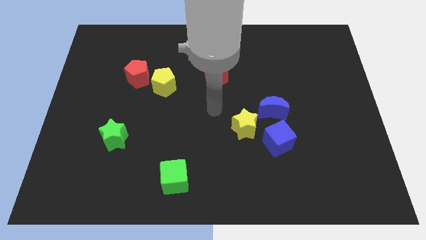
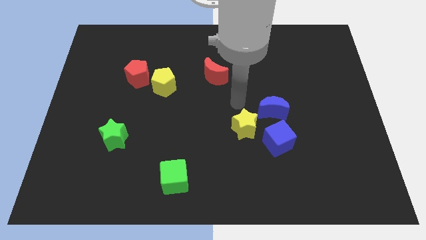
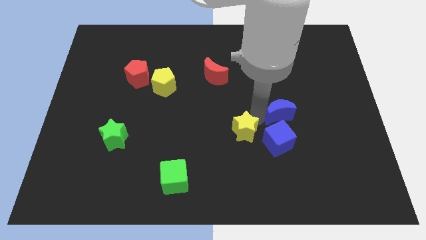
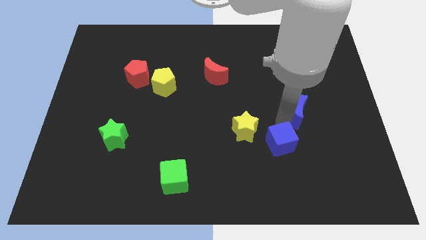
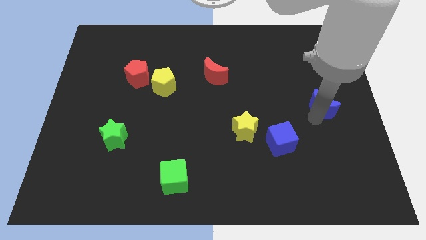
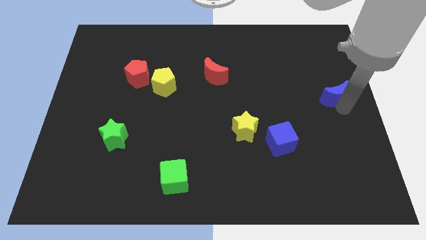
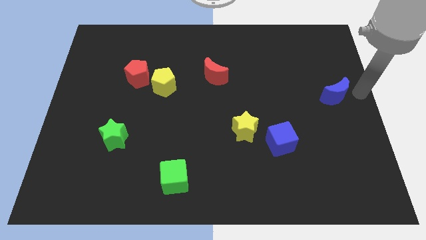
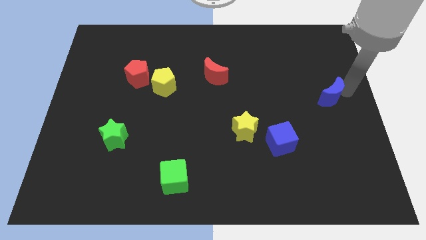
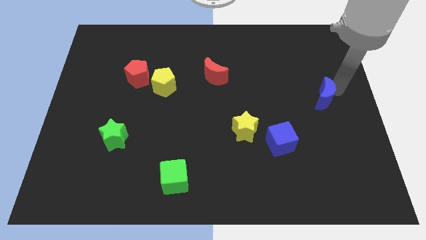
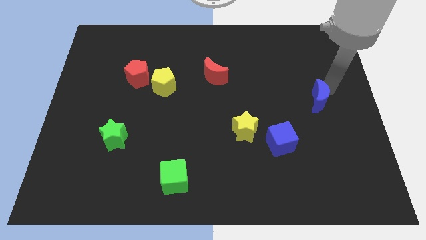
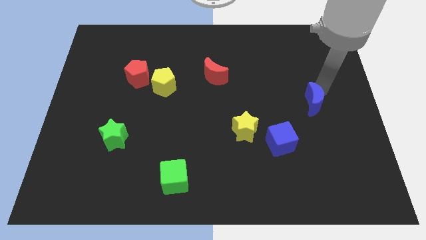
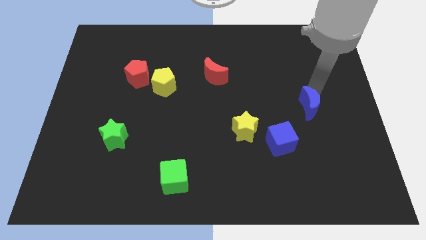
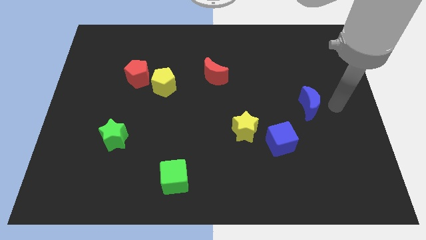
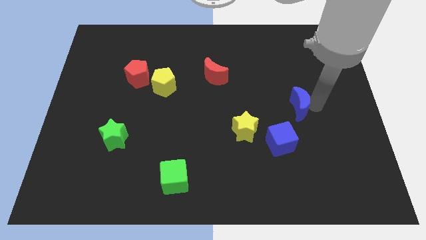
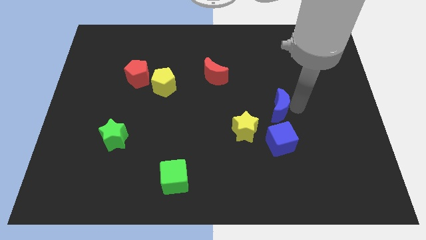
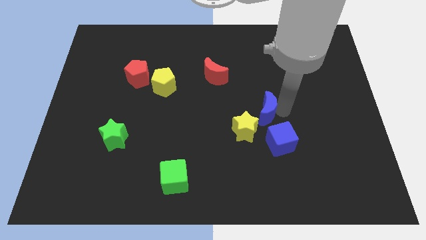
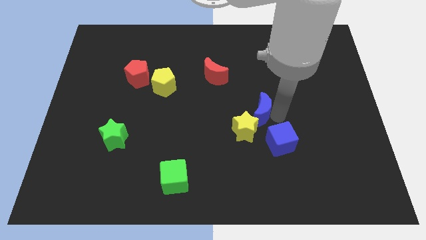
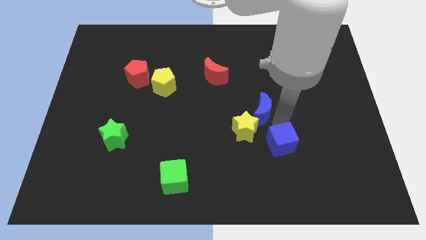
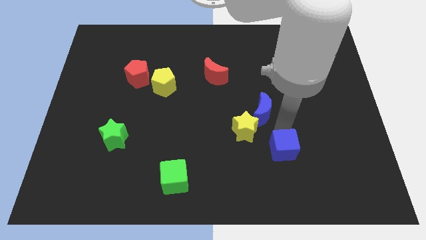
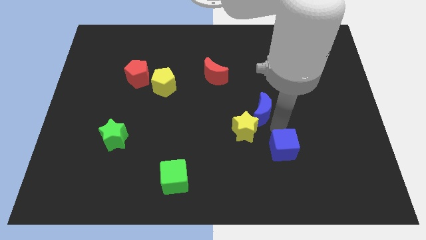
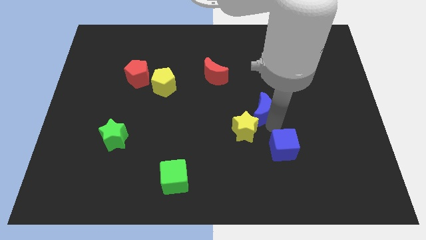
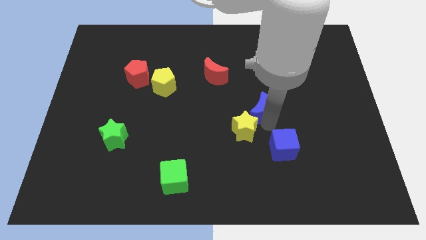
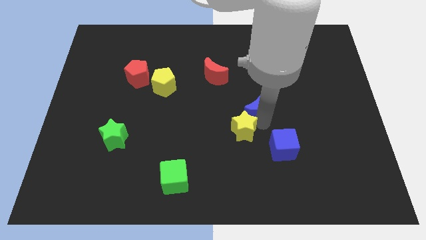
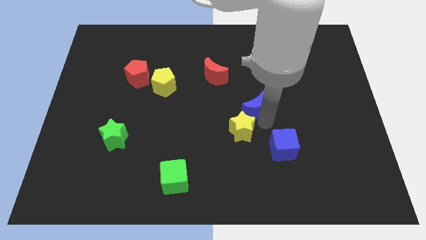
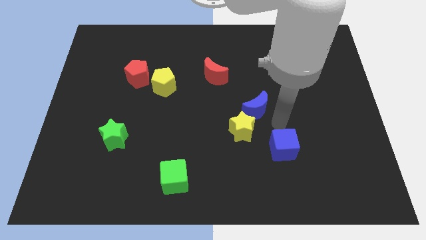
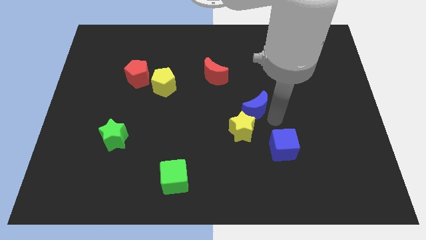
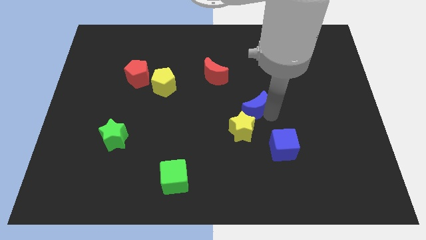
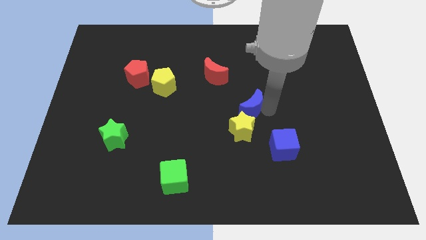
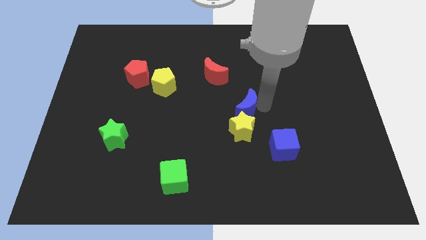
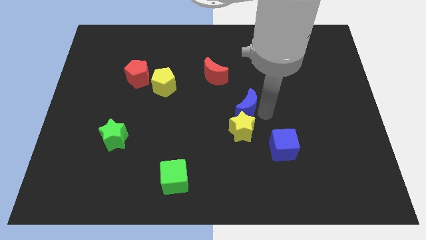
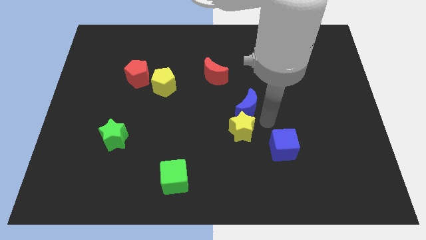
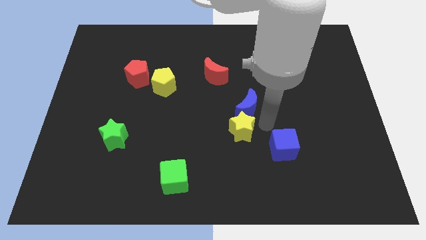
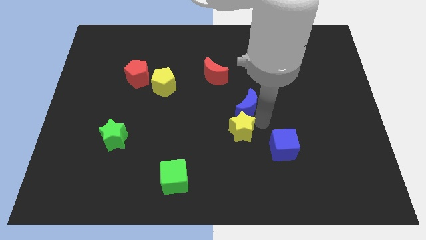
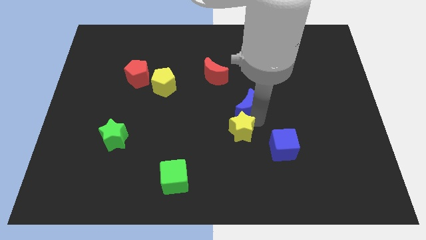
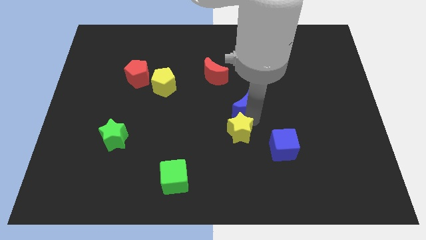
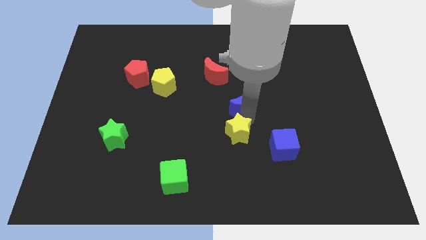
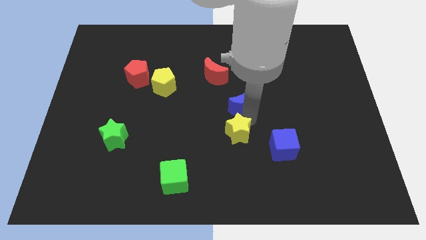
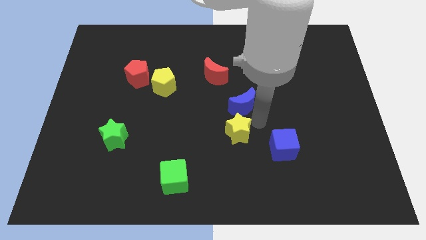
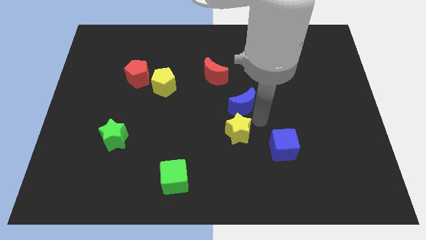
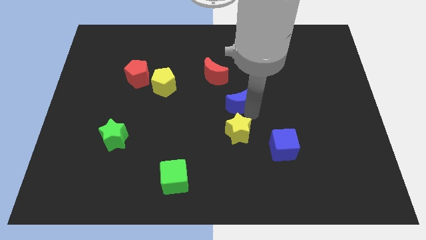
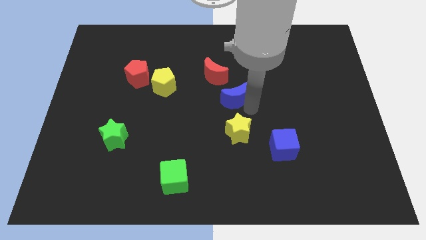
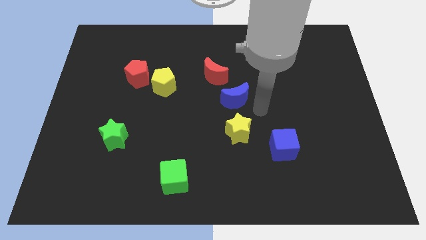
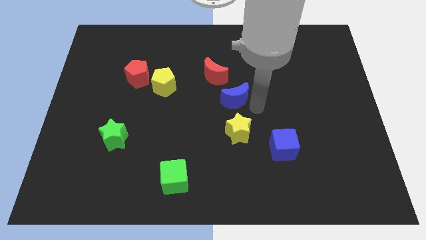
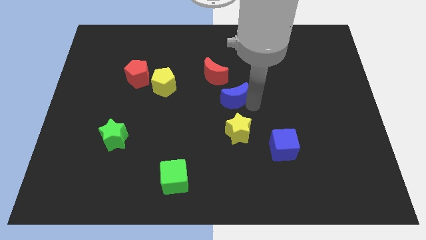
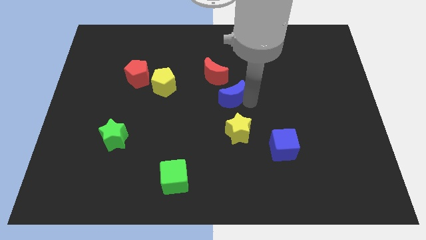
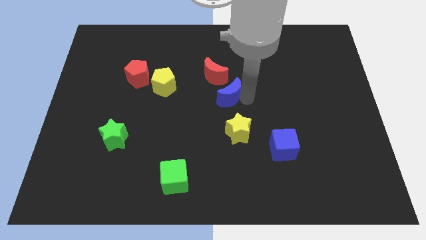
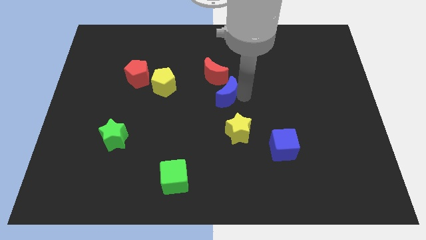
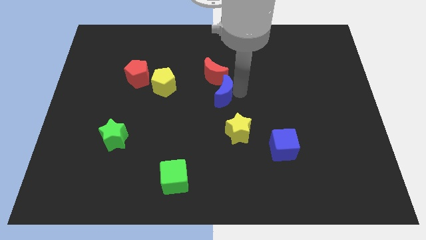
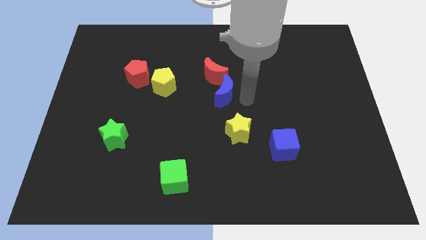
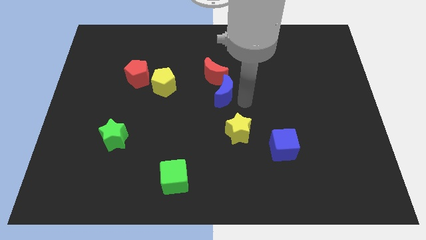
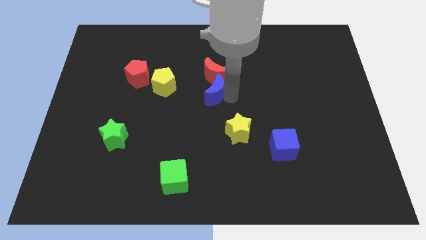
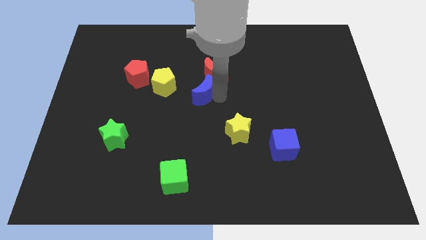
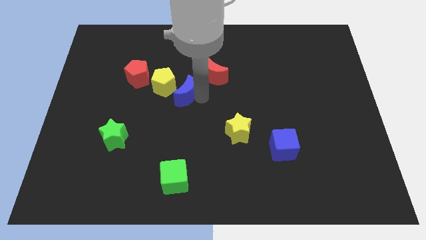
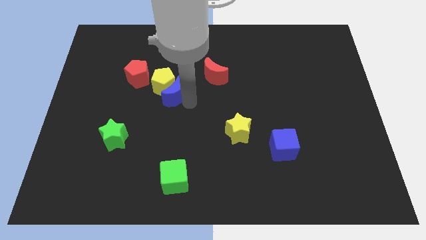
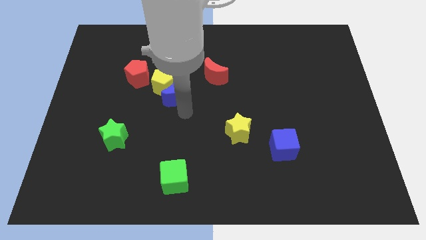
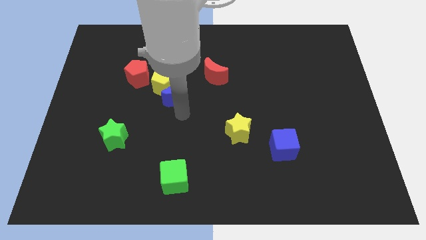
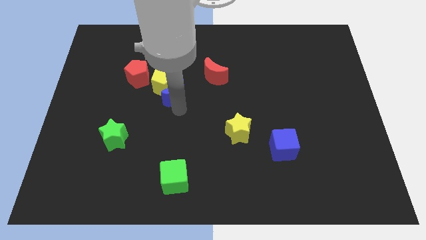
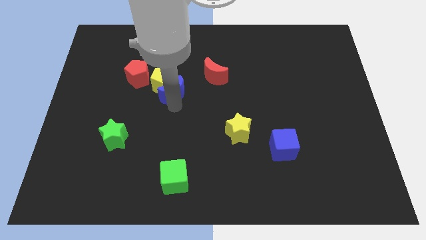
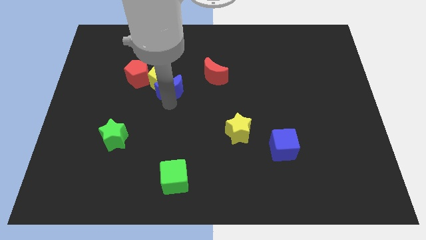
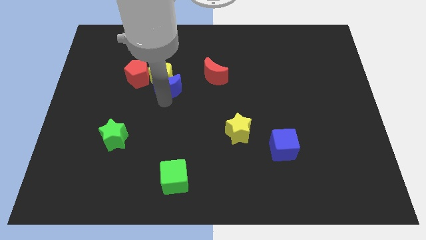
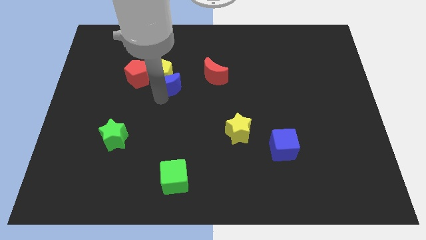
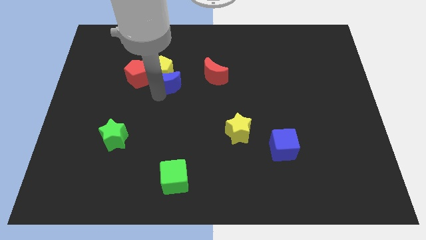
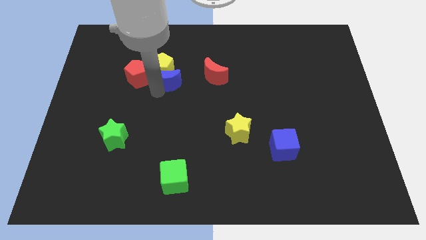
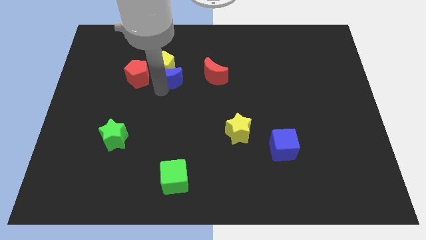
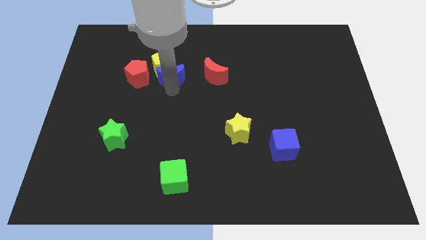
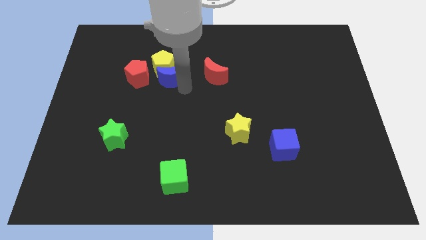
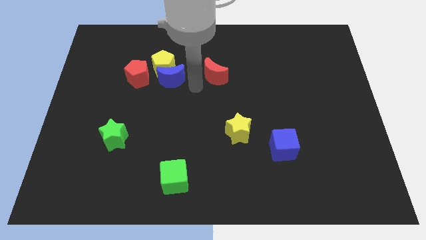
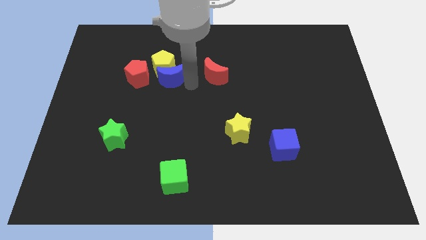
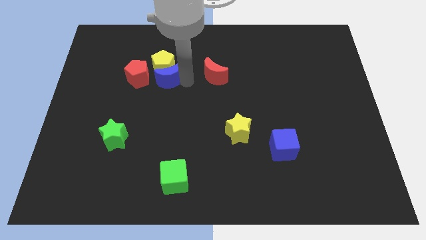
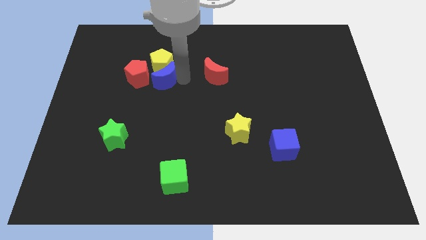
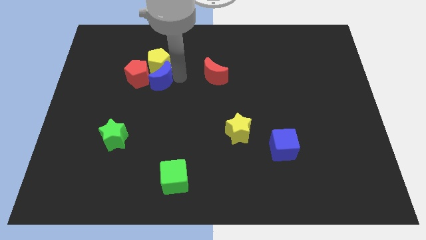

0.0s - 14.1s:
slide the blue moon close to the red pentagon

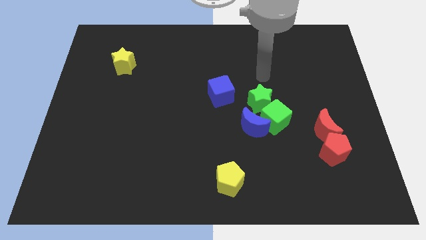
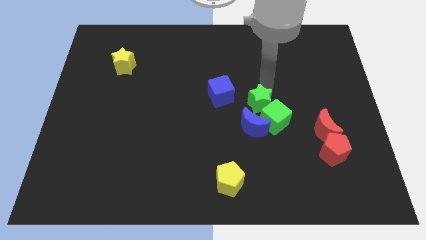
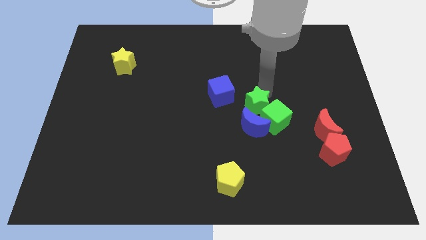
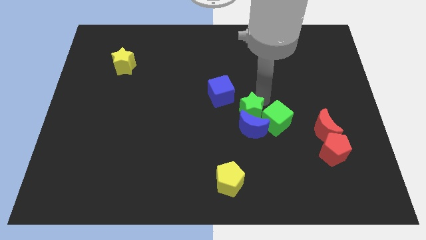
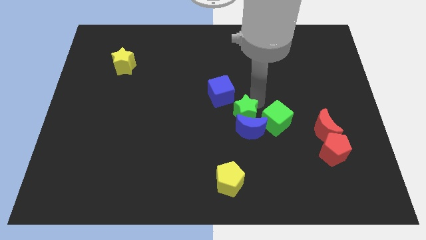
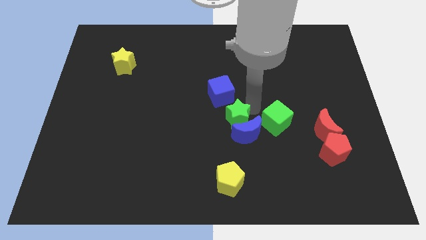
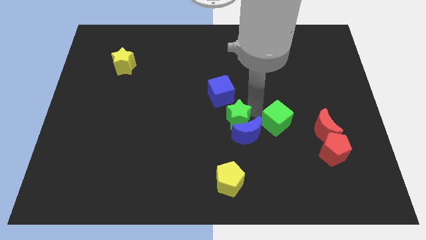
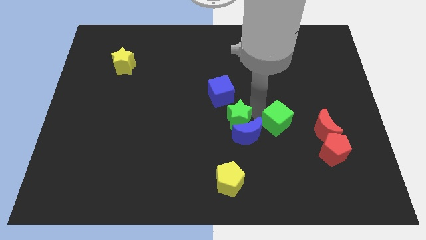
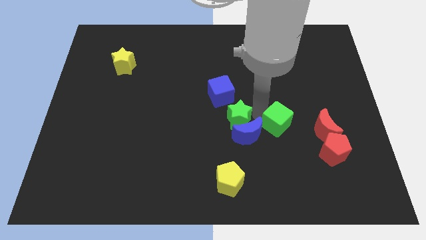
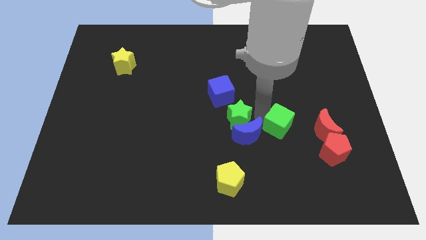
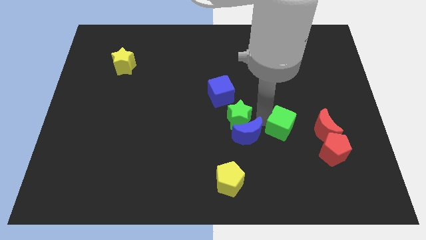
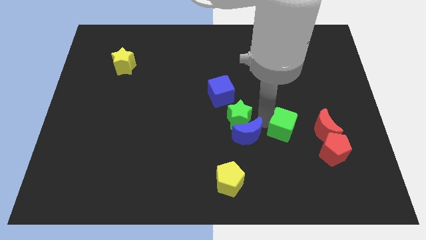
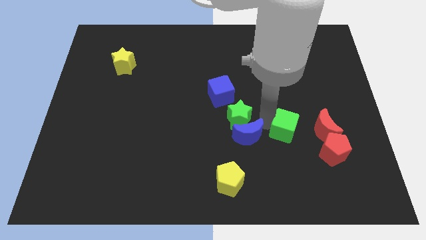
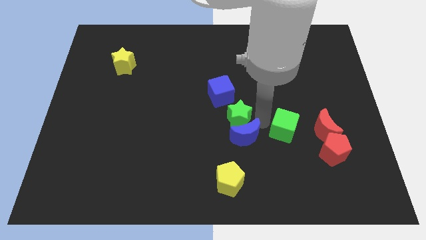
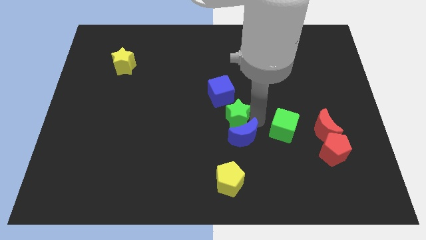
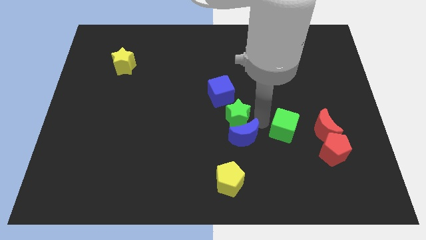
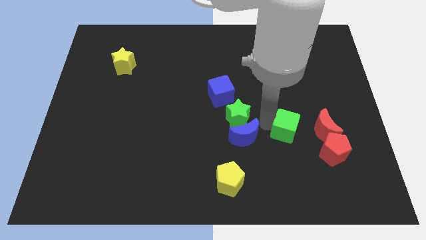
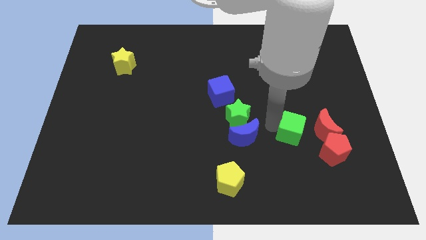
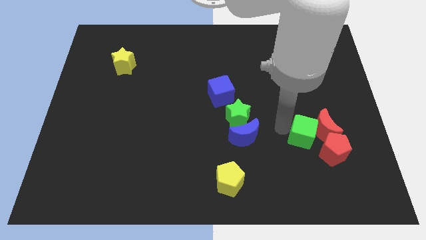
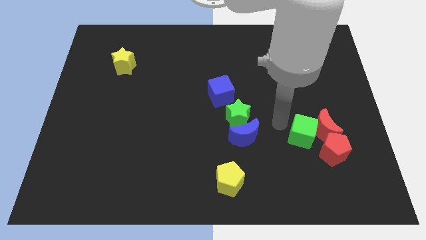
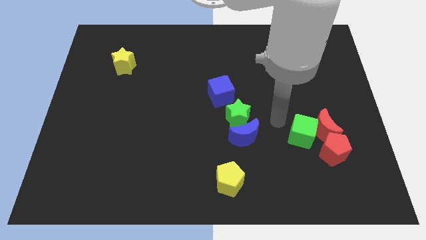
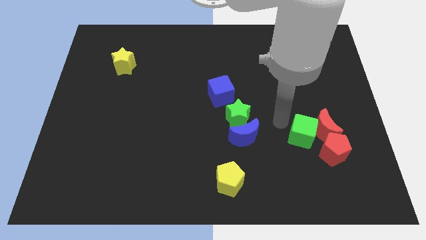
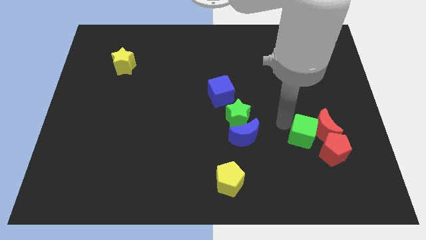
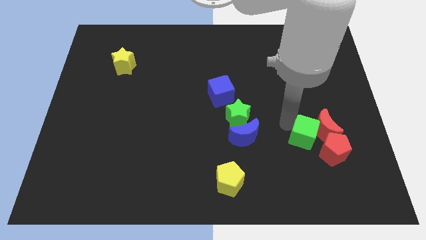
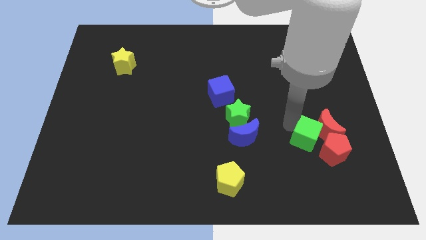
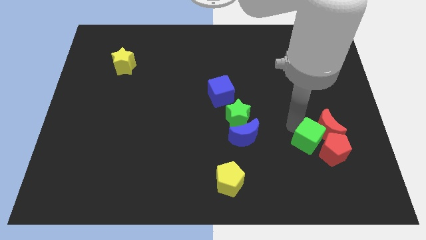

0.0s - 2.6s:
push the green cube to the red pentagon
